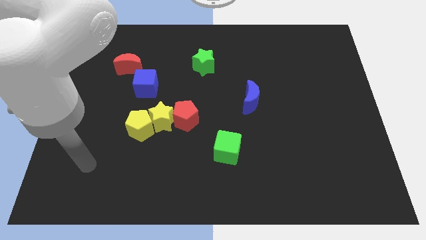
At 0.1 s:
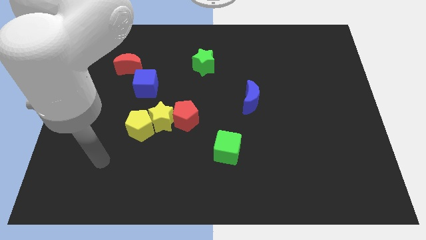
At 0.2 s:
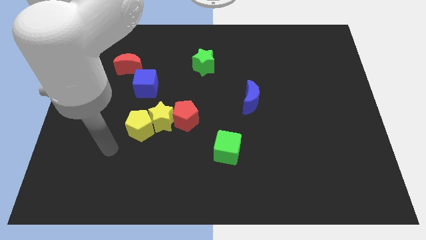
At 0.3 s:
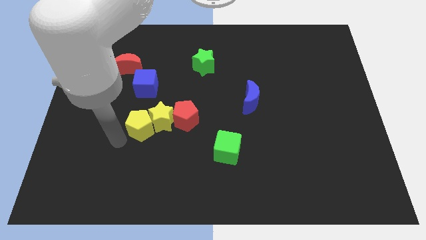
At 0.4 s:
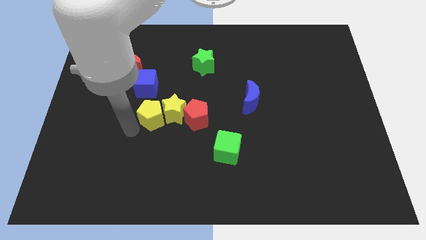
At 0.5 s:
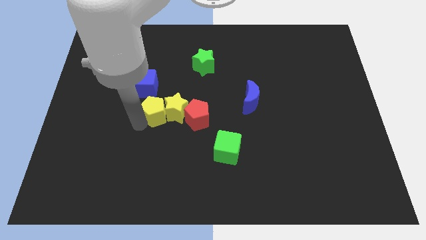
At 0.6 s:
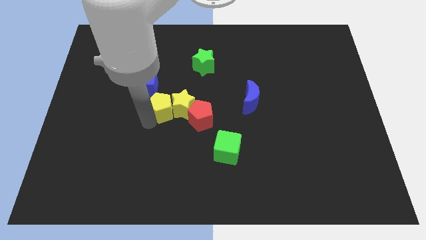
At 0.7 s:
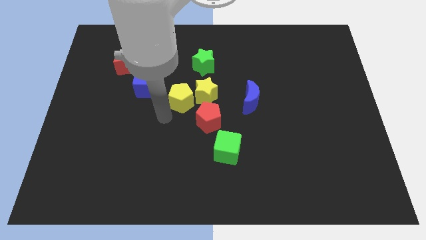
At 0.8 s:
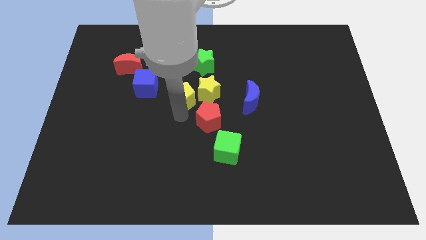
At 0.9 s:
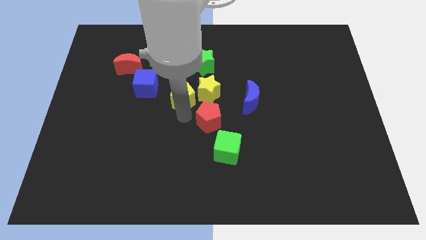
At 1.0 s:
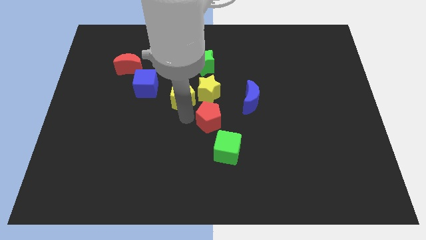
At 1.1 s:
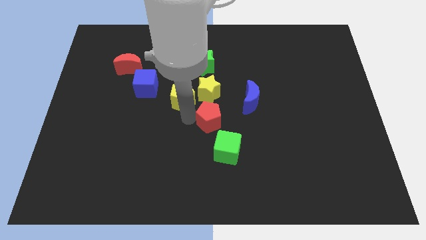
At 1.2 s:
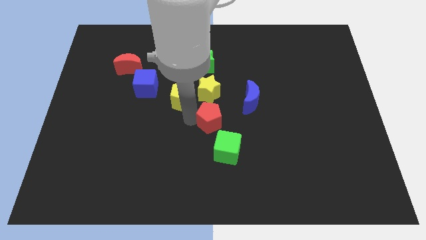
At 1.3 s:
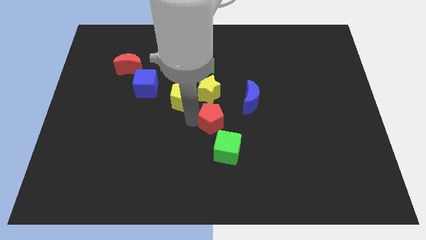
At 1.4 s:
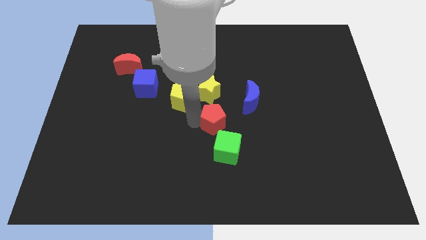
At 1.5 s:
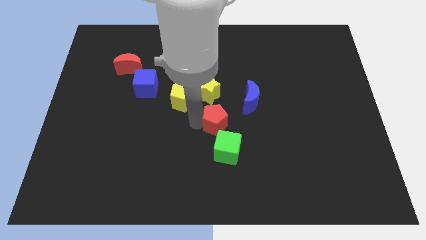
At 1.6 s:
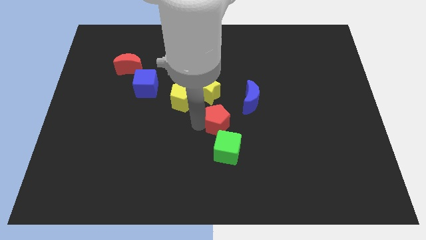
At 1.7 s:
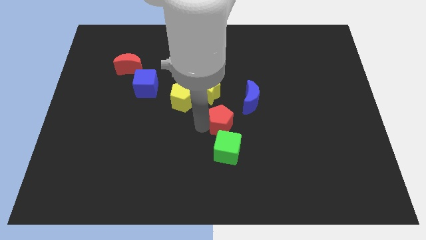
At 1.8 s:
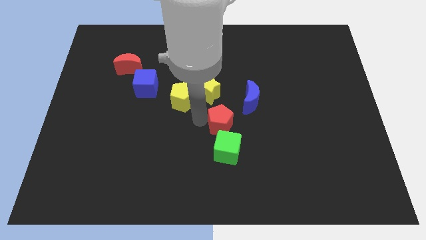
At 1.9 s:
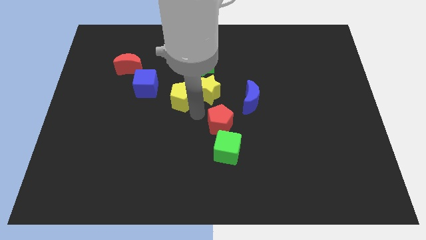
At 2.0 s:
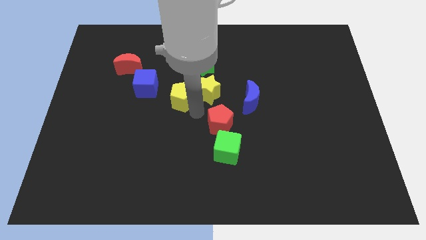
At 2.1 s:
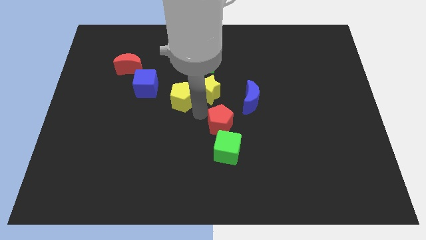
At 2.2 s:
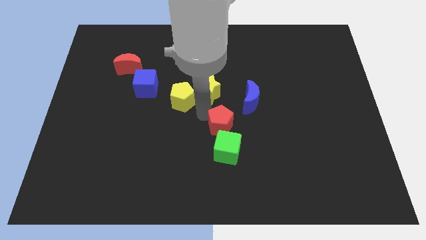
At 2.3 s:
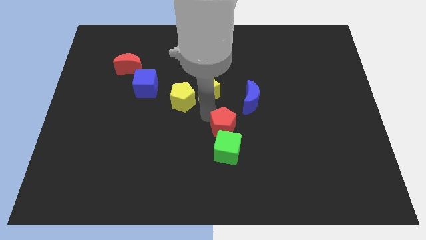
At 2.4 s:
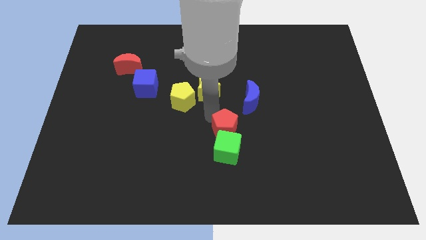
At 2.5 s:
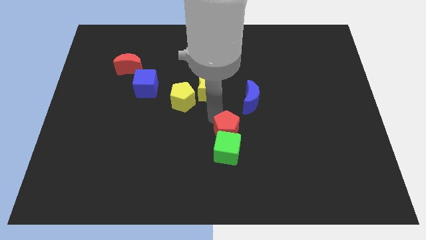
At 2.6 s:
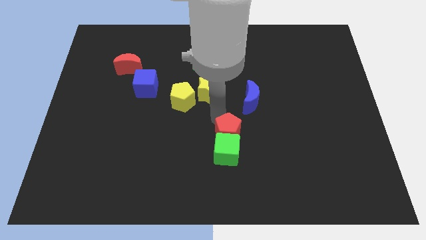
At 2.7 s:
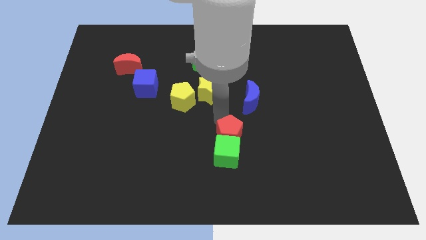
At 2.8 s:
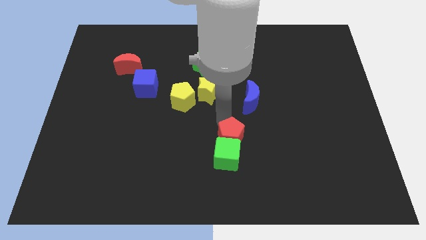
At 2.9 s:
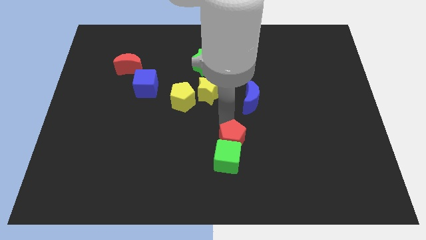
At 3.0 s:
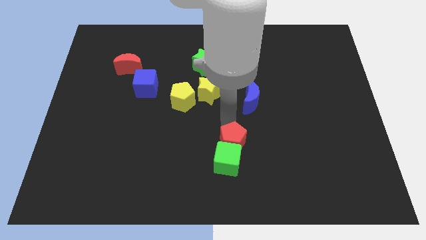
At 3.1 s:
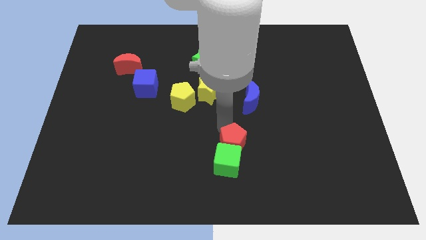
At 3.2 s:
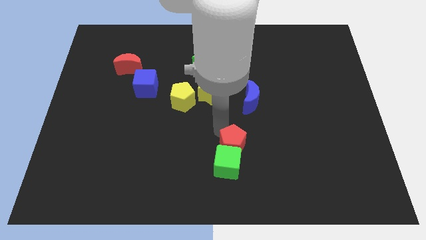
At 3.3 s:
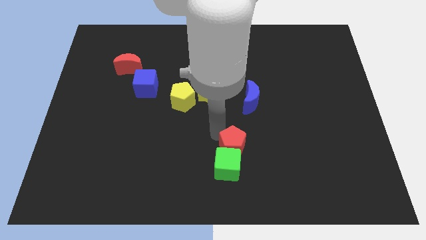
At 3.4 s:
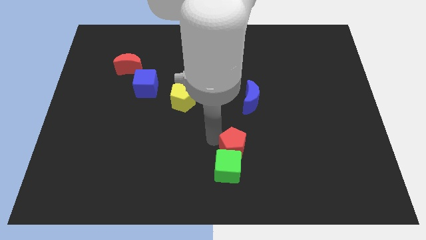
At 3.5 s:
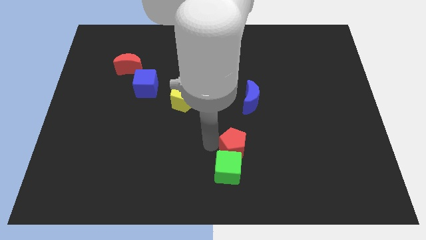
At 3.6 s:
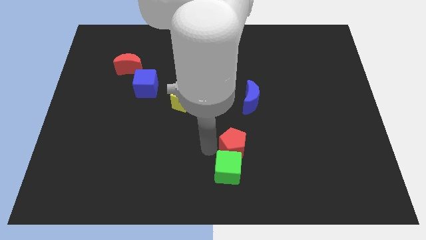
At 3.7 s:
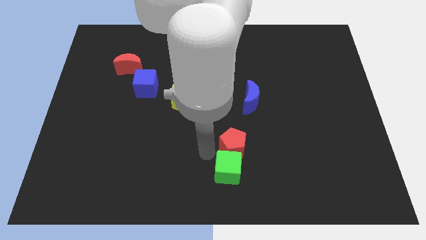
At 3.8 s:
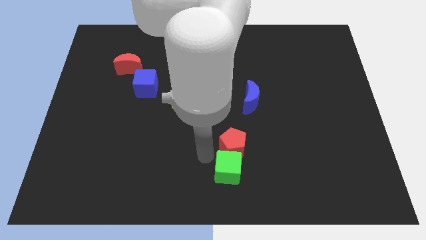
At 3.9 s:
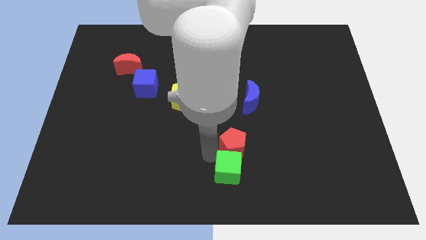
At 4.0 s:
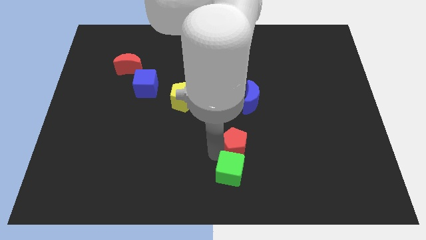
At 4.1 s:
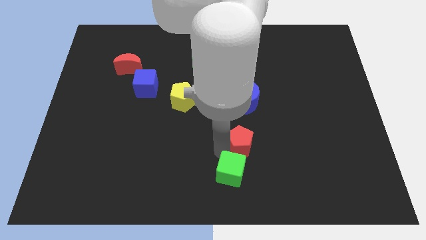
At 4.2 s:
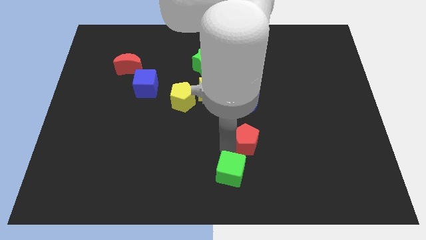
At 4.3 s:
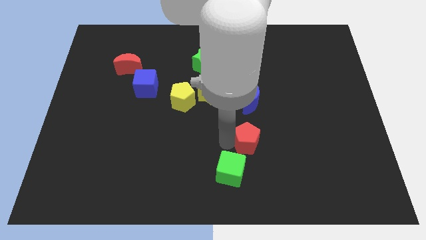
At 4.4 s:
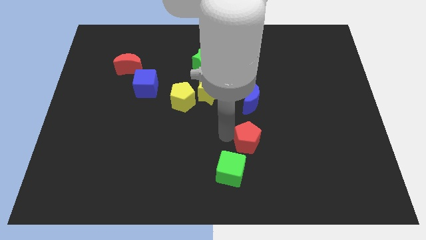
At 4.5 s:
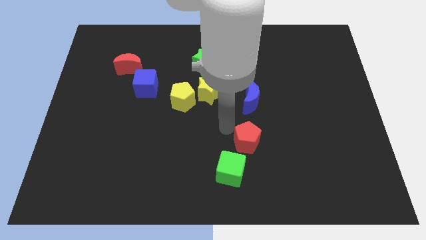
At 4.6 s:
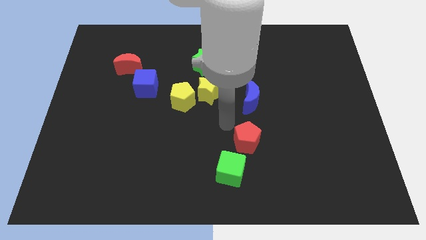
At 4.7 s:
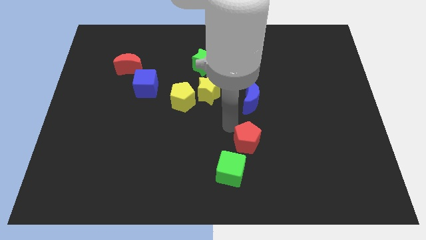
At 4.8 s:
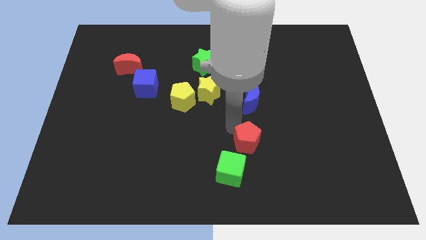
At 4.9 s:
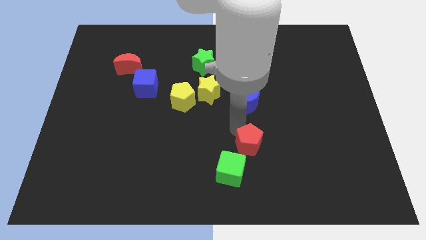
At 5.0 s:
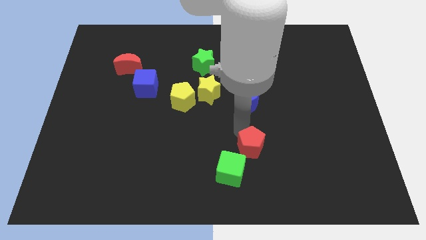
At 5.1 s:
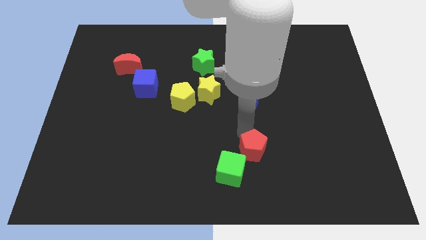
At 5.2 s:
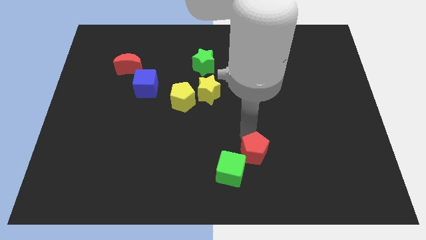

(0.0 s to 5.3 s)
put the red pentagon right of the green cube

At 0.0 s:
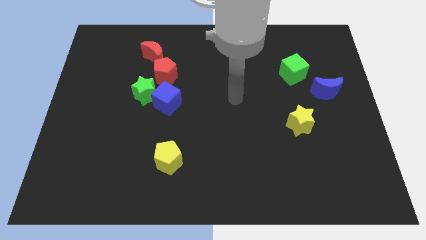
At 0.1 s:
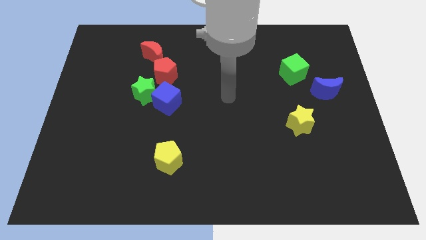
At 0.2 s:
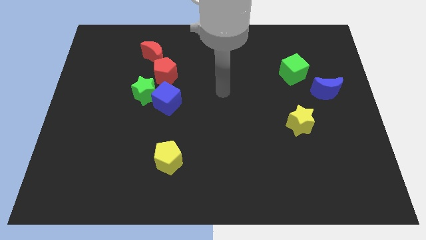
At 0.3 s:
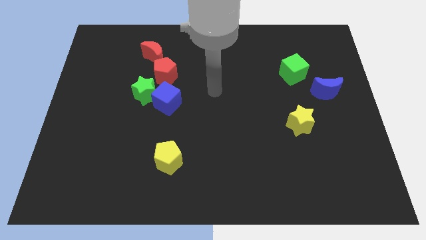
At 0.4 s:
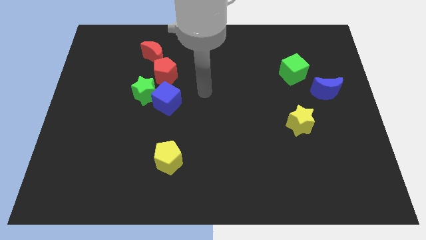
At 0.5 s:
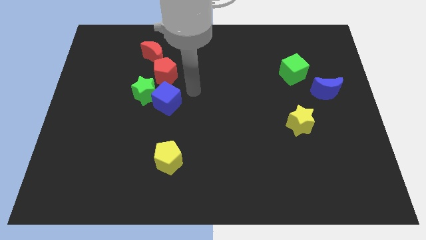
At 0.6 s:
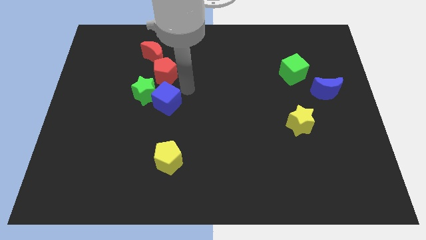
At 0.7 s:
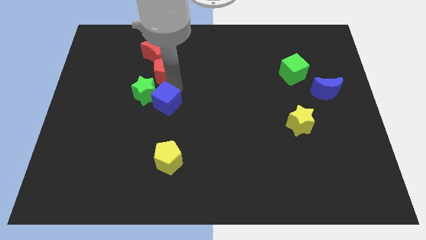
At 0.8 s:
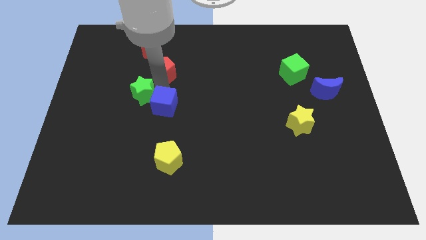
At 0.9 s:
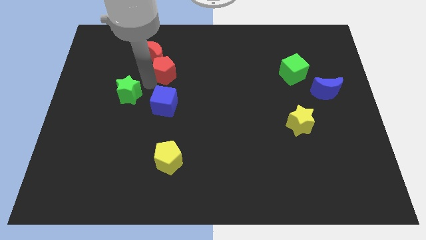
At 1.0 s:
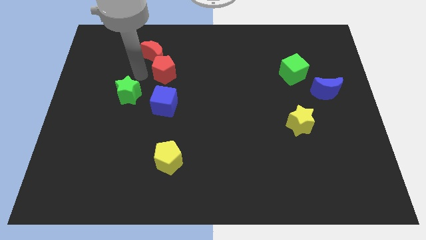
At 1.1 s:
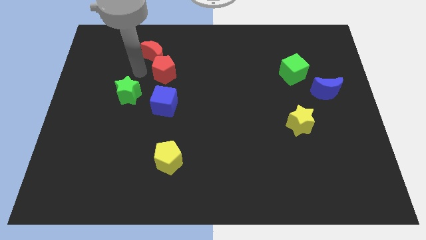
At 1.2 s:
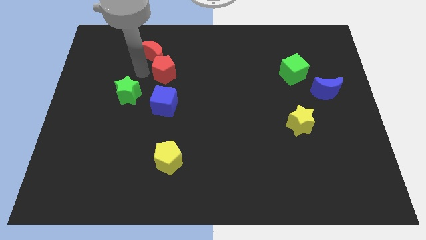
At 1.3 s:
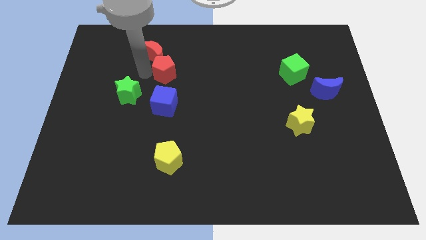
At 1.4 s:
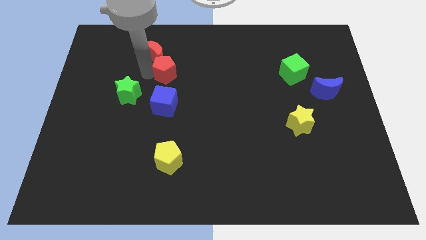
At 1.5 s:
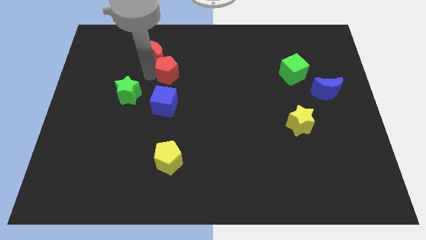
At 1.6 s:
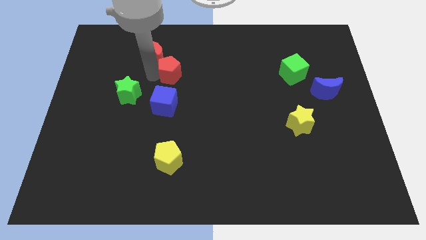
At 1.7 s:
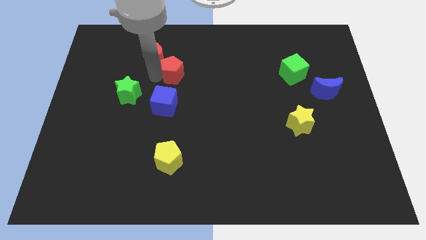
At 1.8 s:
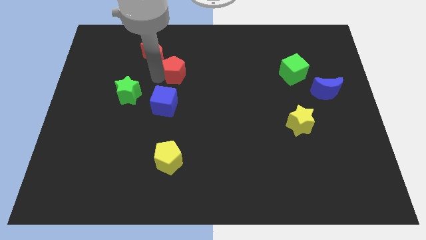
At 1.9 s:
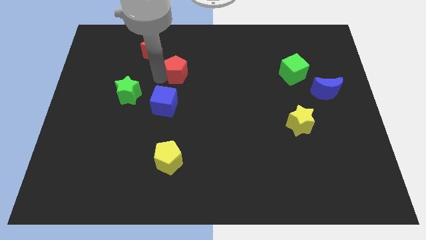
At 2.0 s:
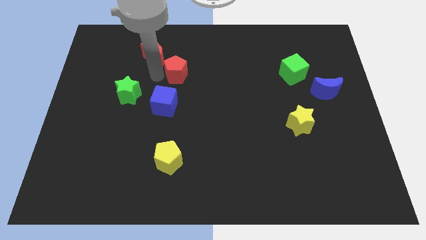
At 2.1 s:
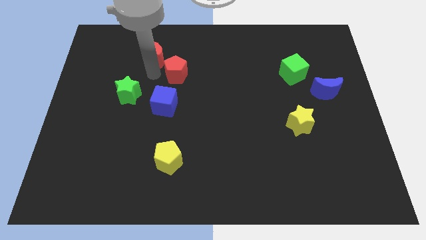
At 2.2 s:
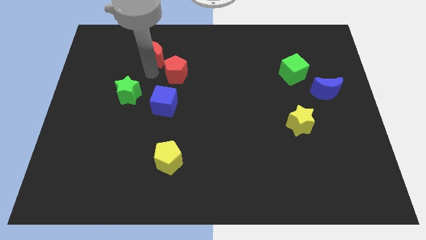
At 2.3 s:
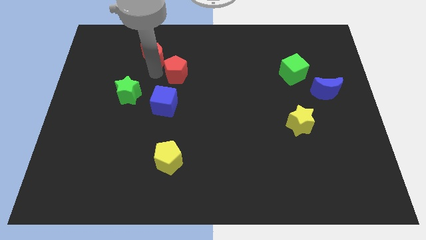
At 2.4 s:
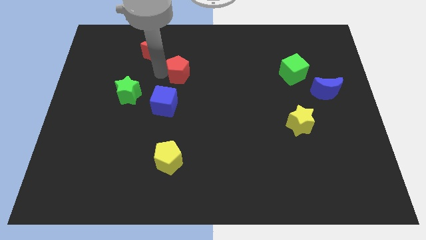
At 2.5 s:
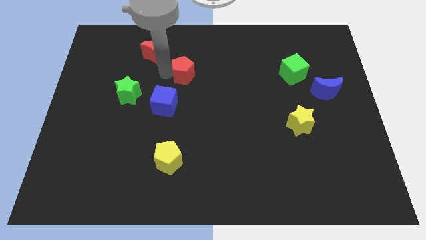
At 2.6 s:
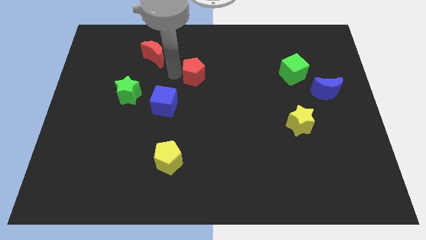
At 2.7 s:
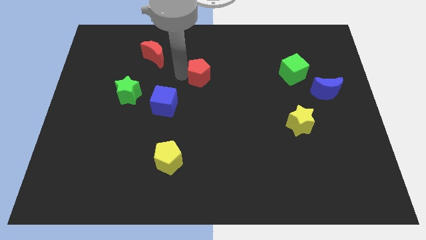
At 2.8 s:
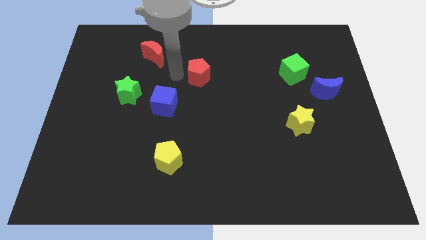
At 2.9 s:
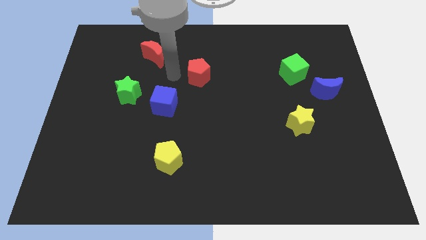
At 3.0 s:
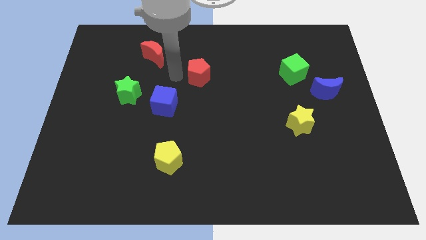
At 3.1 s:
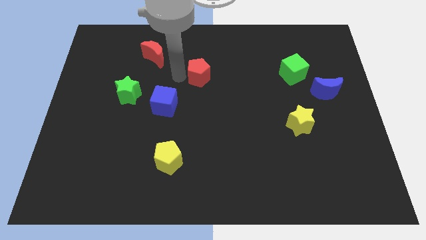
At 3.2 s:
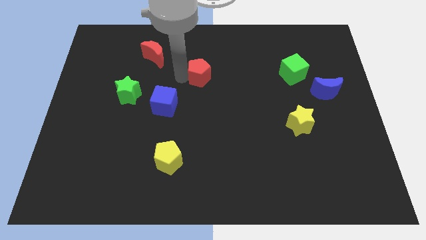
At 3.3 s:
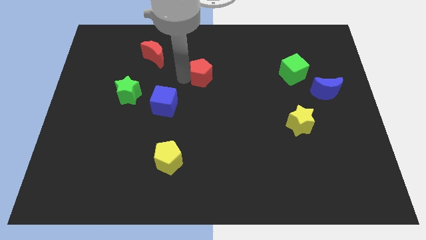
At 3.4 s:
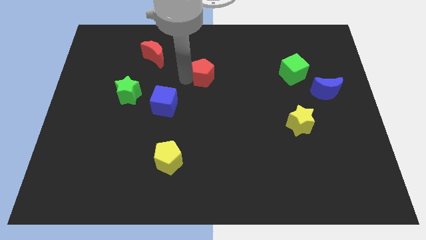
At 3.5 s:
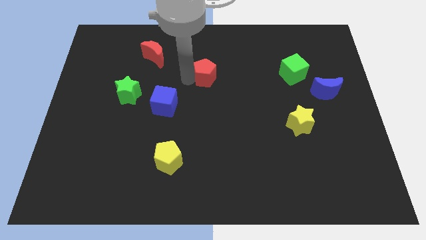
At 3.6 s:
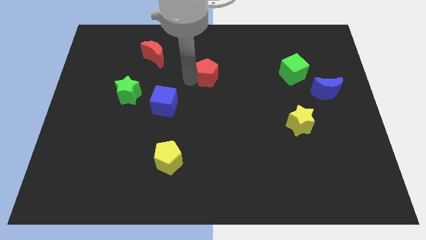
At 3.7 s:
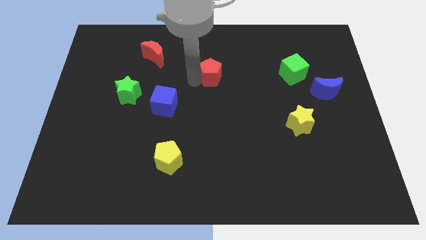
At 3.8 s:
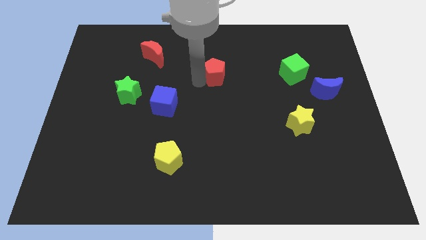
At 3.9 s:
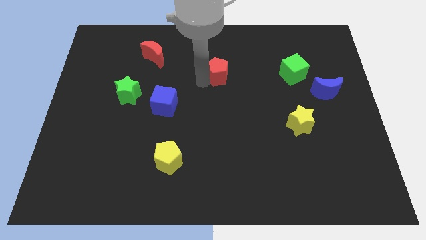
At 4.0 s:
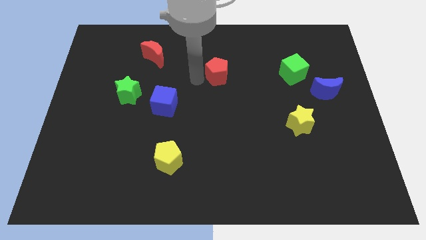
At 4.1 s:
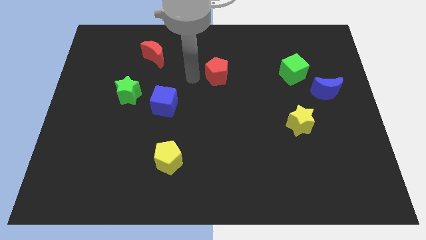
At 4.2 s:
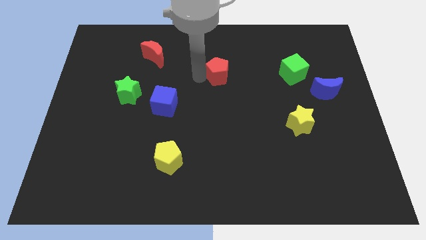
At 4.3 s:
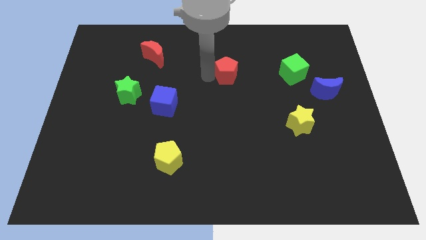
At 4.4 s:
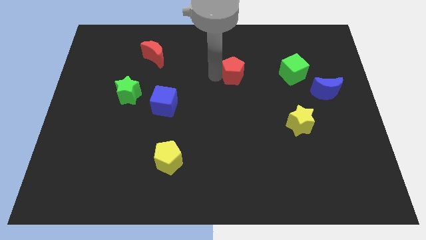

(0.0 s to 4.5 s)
move the red pentagon left of the green cube
